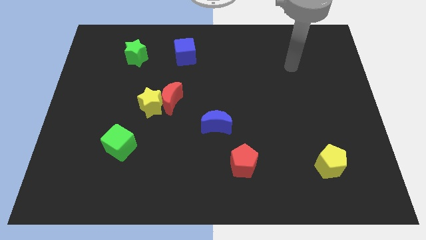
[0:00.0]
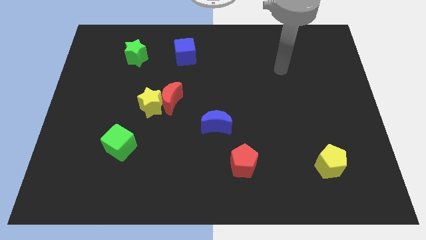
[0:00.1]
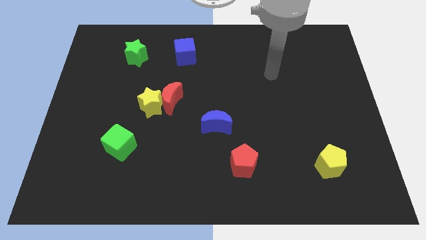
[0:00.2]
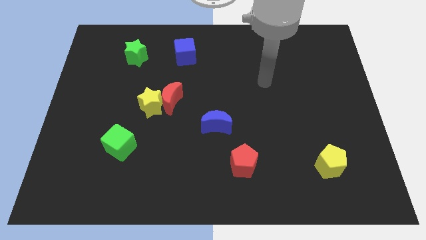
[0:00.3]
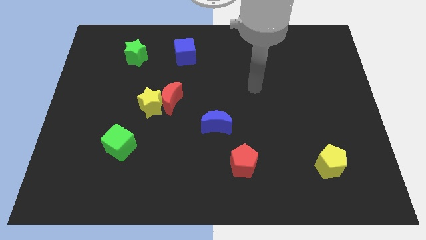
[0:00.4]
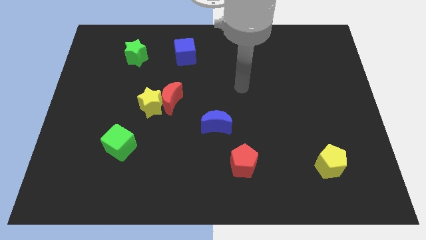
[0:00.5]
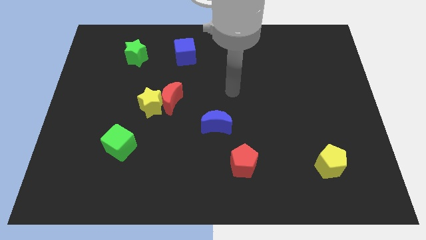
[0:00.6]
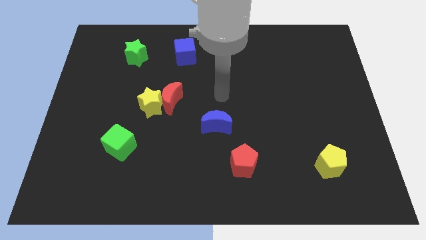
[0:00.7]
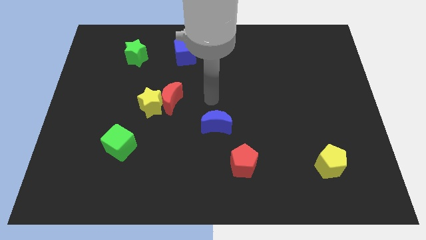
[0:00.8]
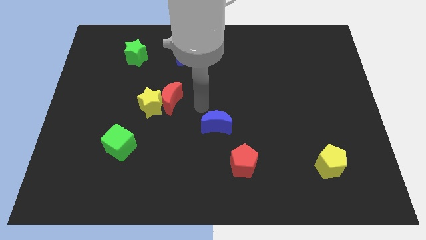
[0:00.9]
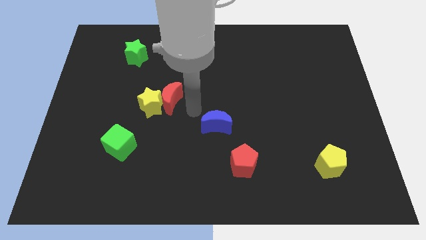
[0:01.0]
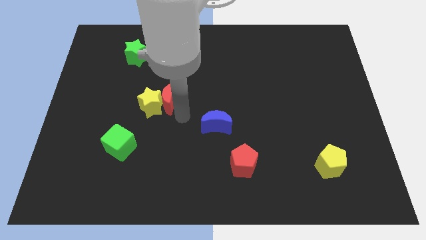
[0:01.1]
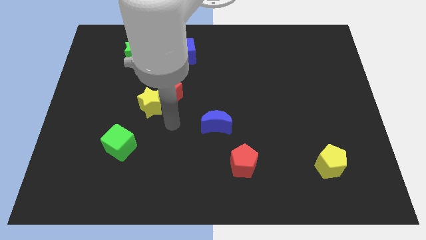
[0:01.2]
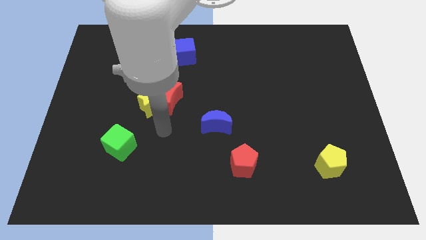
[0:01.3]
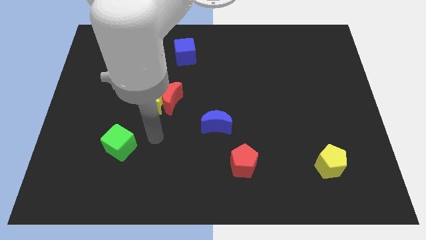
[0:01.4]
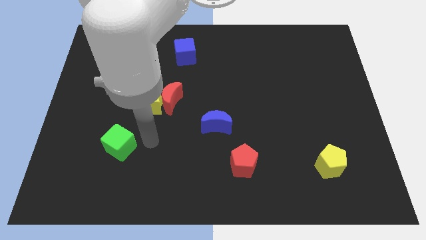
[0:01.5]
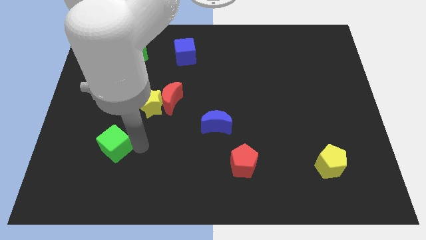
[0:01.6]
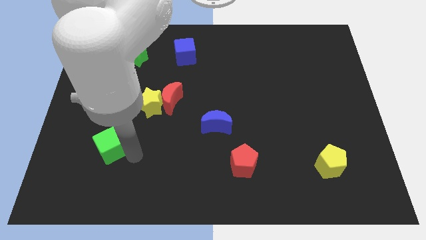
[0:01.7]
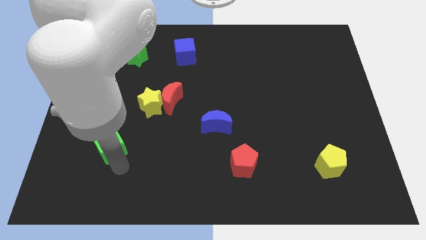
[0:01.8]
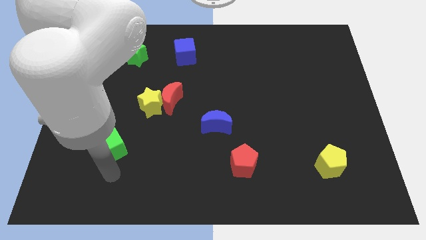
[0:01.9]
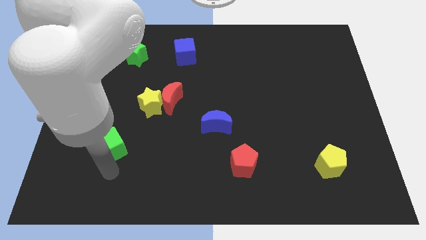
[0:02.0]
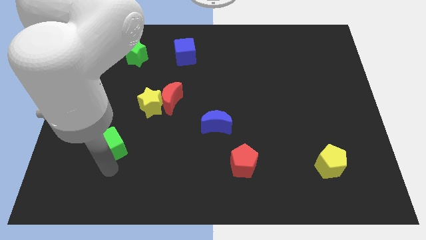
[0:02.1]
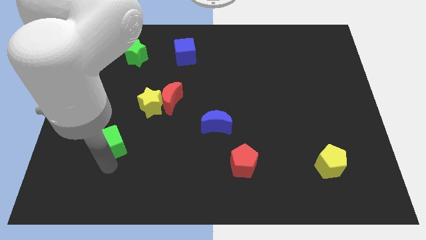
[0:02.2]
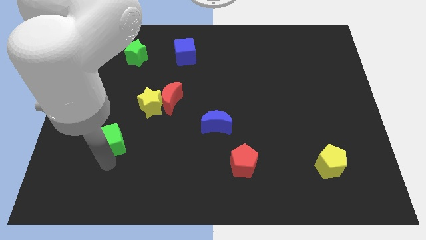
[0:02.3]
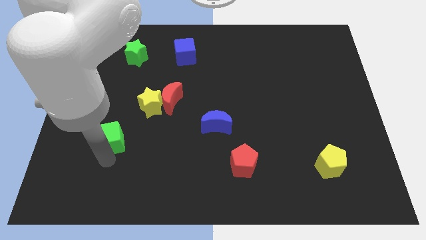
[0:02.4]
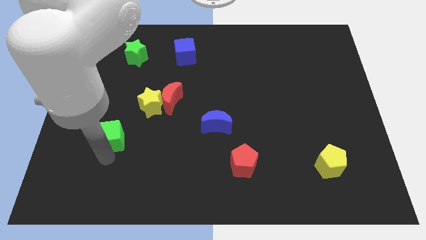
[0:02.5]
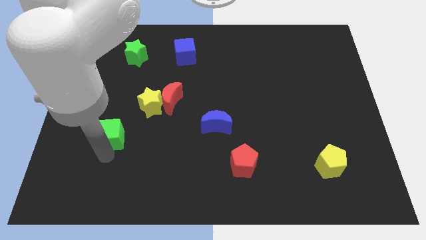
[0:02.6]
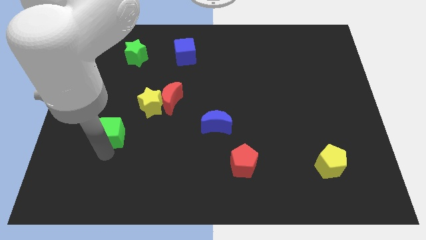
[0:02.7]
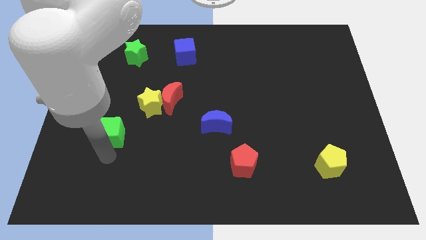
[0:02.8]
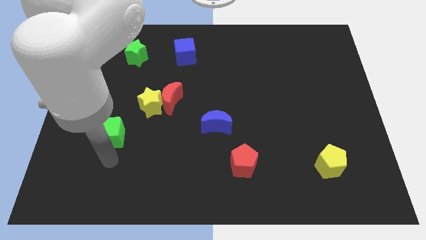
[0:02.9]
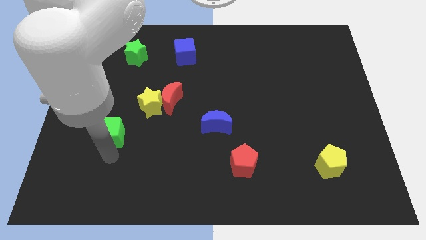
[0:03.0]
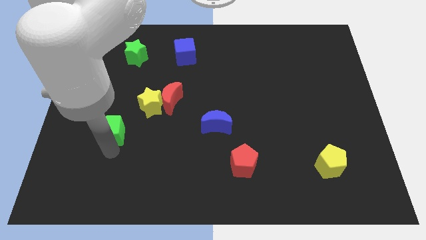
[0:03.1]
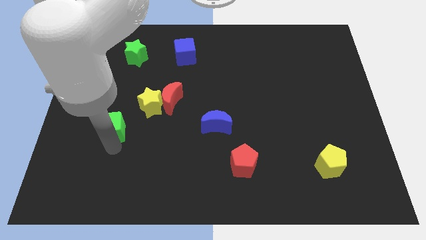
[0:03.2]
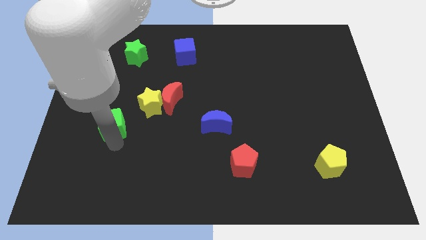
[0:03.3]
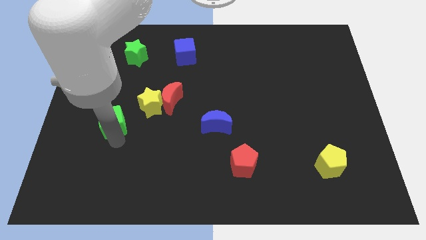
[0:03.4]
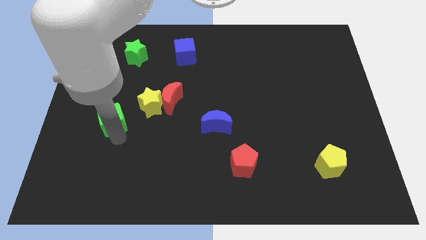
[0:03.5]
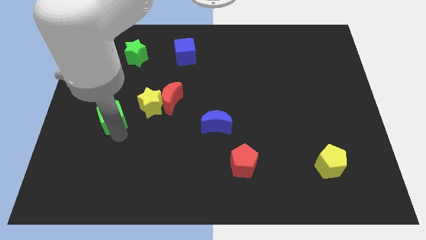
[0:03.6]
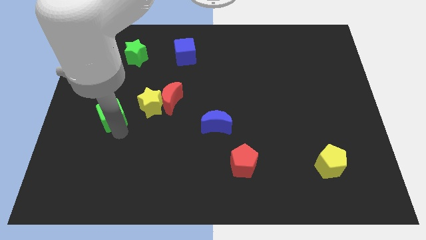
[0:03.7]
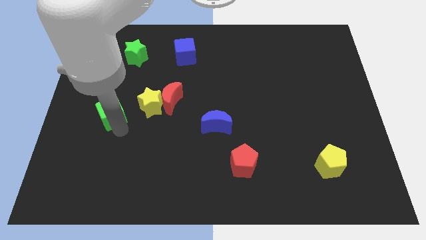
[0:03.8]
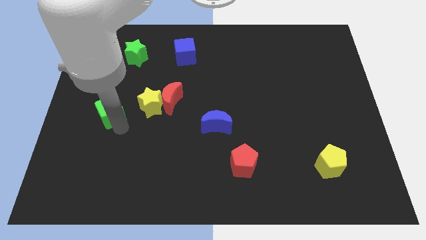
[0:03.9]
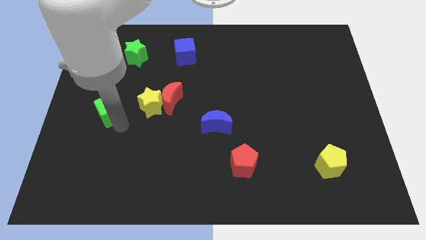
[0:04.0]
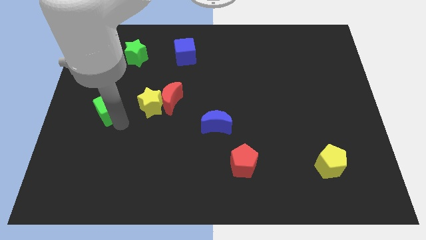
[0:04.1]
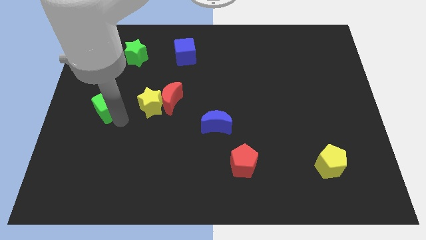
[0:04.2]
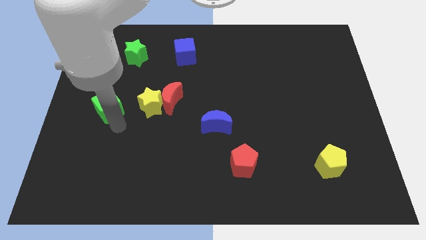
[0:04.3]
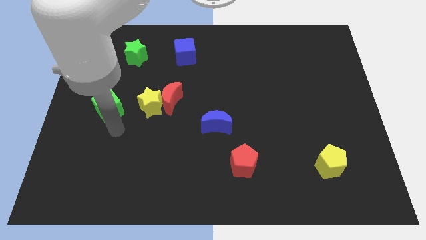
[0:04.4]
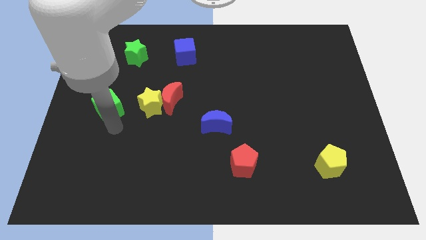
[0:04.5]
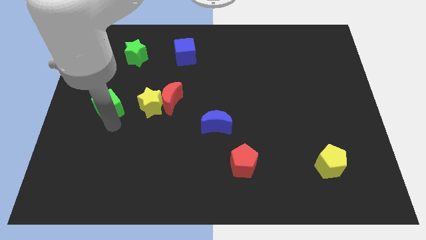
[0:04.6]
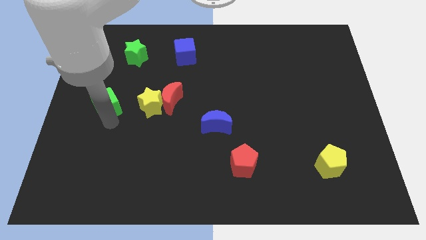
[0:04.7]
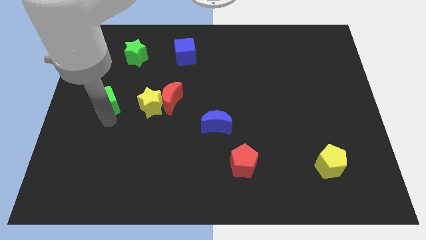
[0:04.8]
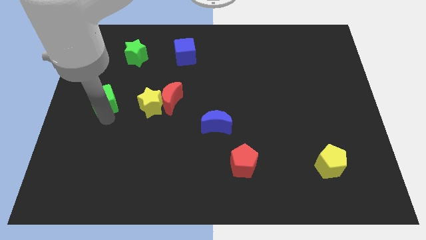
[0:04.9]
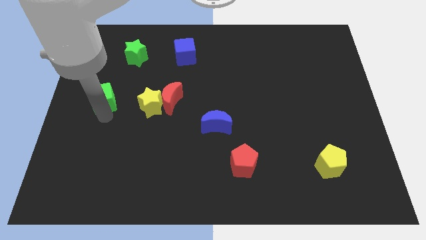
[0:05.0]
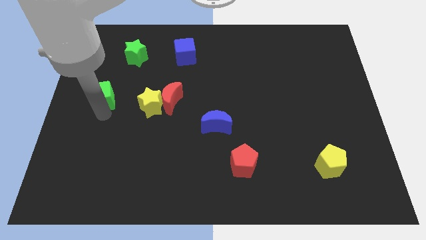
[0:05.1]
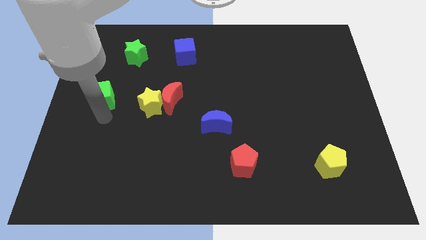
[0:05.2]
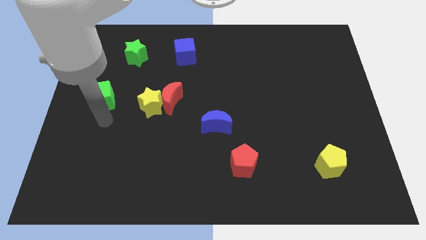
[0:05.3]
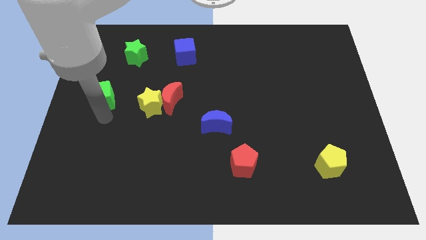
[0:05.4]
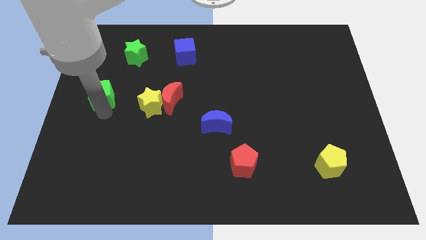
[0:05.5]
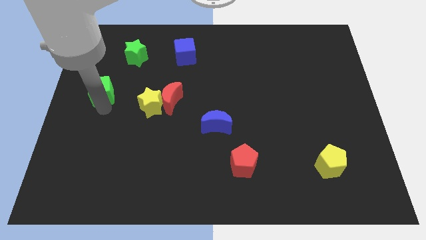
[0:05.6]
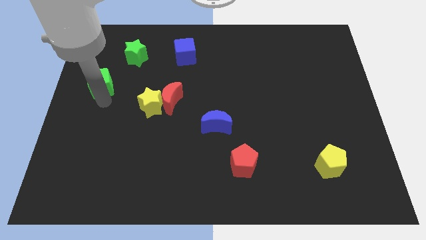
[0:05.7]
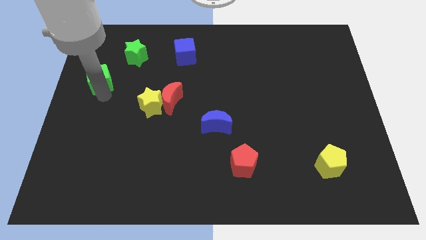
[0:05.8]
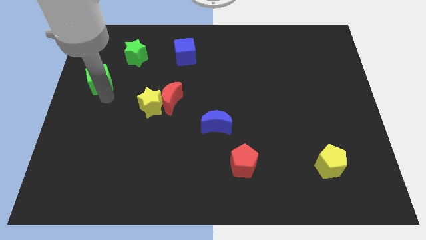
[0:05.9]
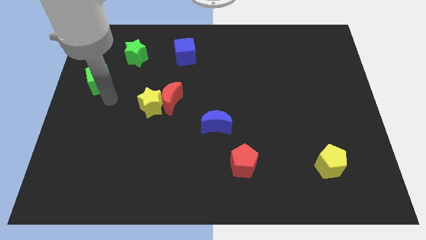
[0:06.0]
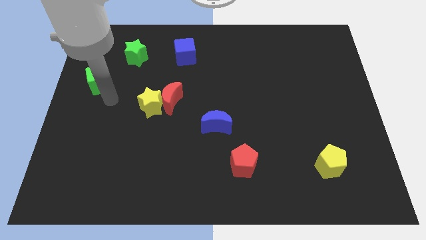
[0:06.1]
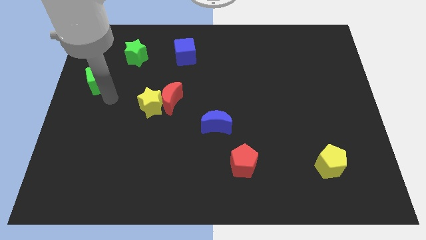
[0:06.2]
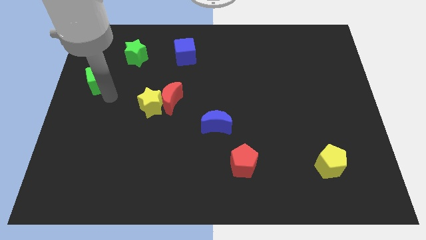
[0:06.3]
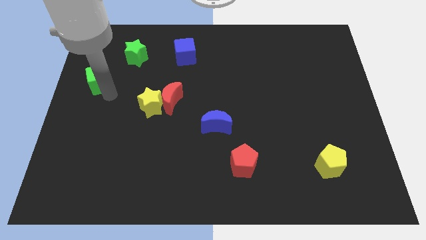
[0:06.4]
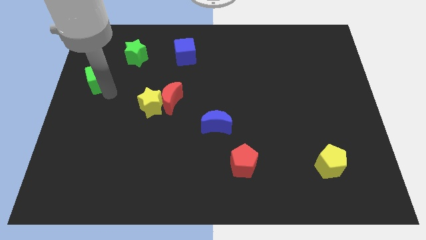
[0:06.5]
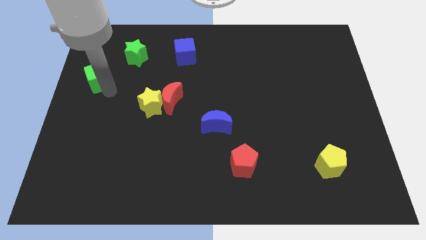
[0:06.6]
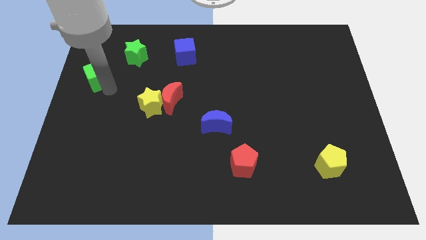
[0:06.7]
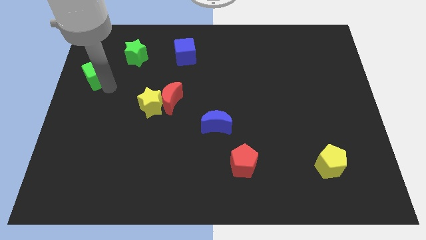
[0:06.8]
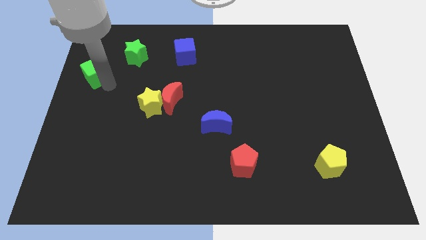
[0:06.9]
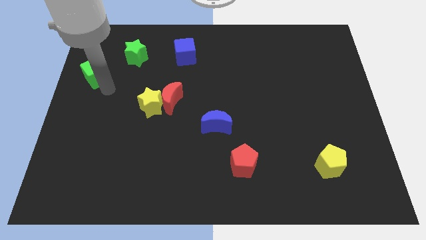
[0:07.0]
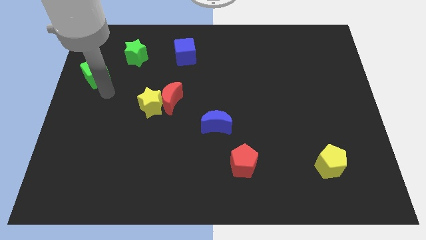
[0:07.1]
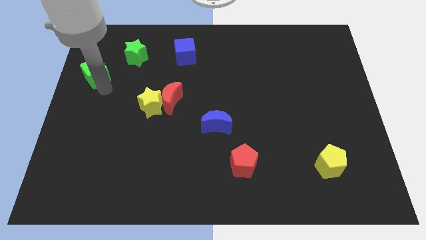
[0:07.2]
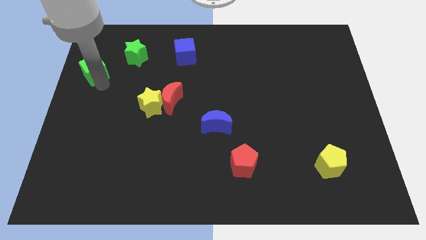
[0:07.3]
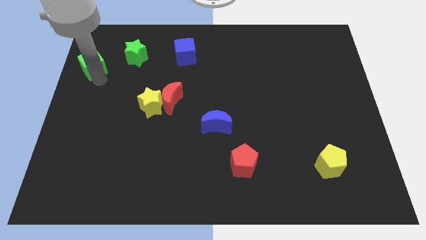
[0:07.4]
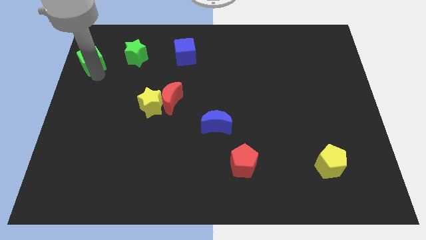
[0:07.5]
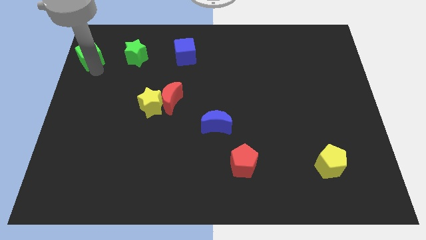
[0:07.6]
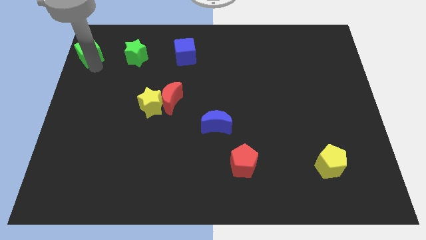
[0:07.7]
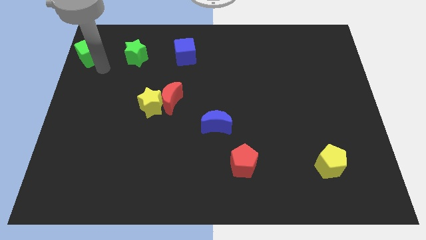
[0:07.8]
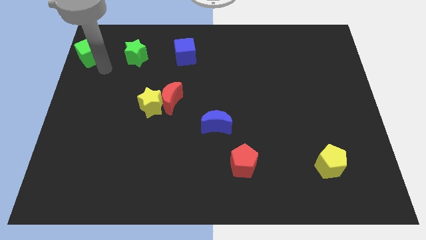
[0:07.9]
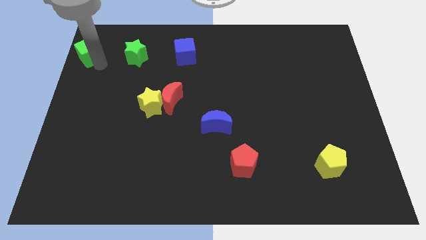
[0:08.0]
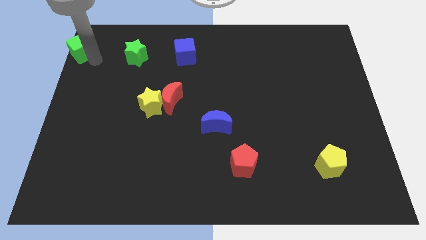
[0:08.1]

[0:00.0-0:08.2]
put the green cube to the top left of the board
